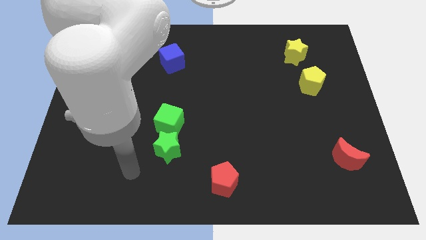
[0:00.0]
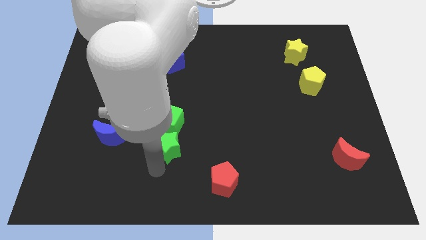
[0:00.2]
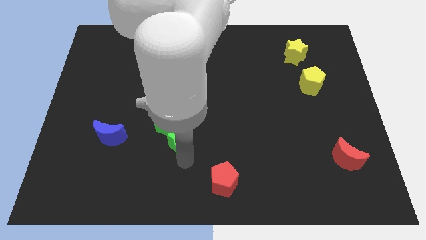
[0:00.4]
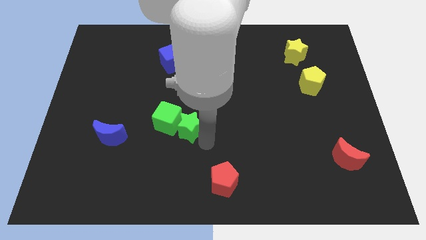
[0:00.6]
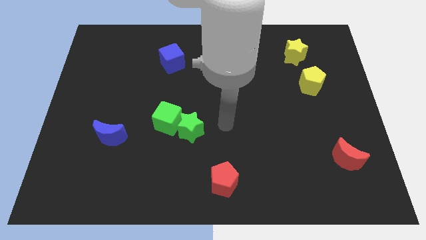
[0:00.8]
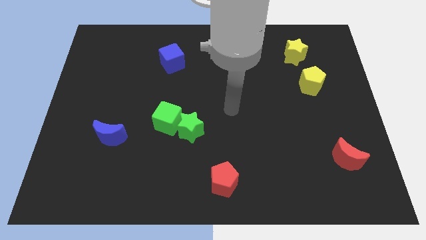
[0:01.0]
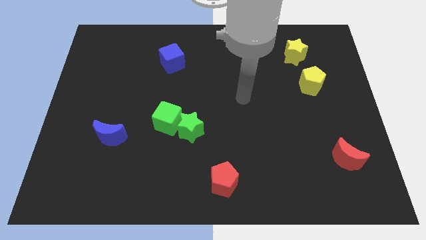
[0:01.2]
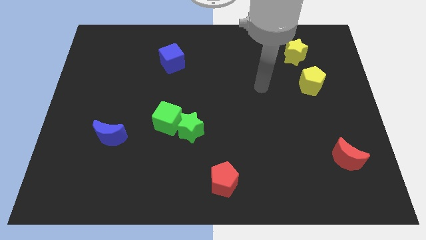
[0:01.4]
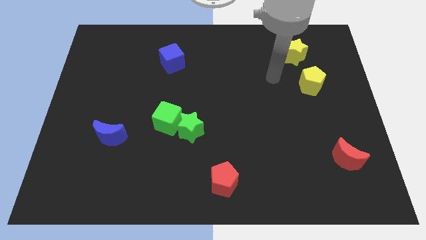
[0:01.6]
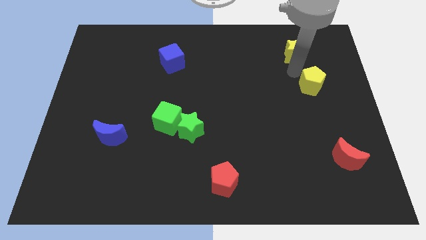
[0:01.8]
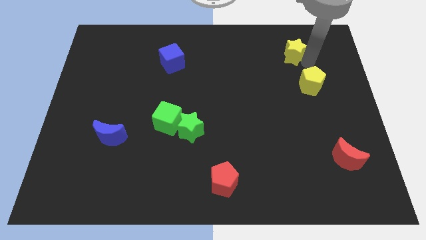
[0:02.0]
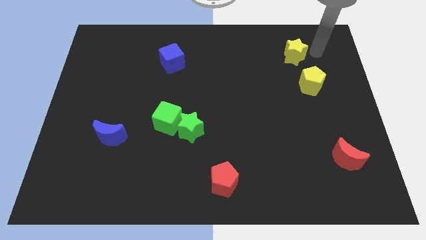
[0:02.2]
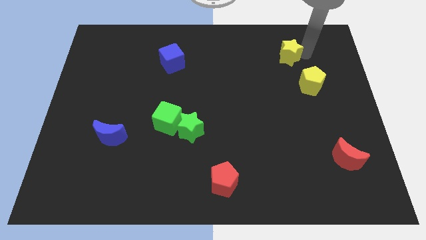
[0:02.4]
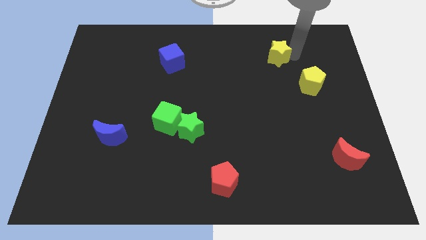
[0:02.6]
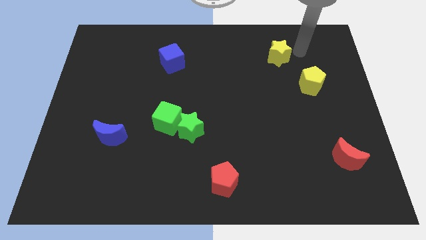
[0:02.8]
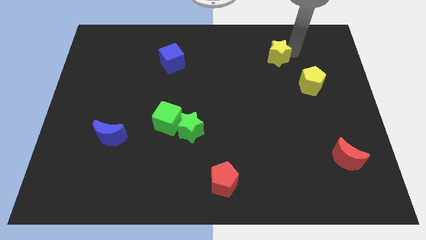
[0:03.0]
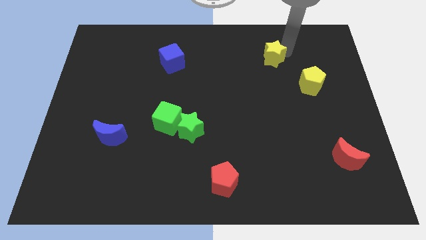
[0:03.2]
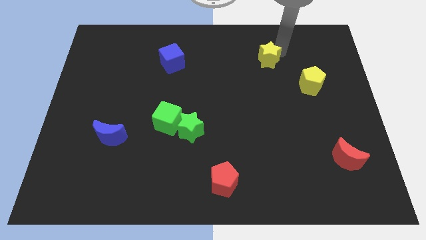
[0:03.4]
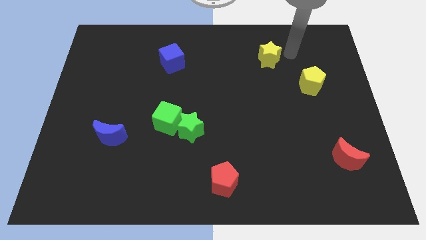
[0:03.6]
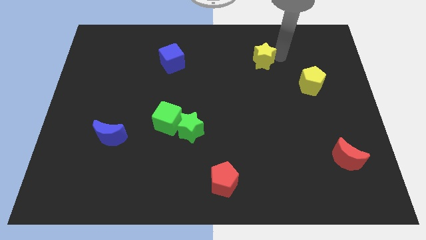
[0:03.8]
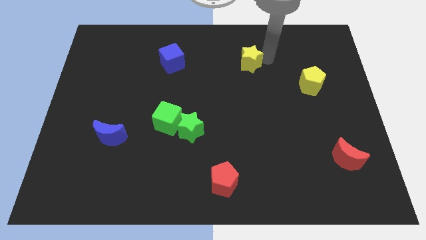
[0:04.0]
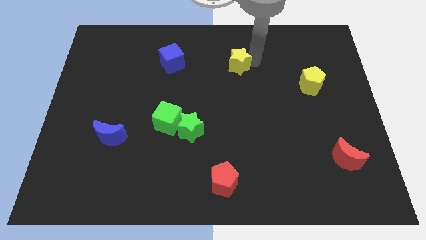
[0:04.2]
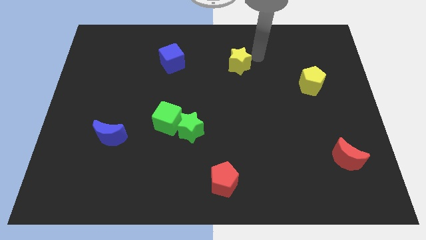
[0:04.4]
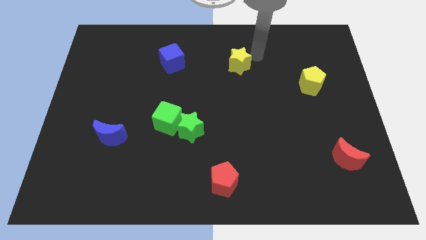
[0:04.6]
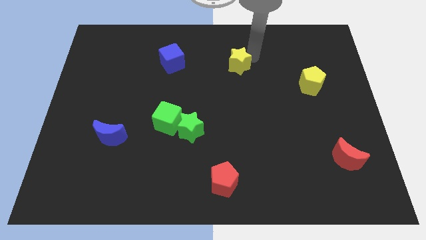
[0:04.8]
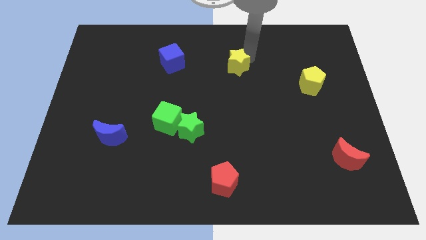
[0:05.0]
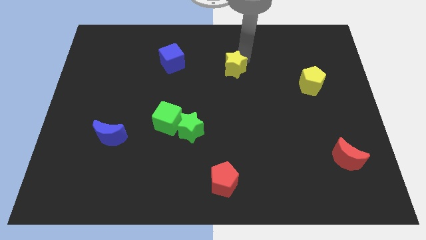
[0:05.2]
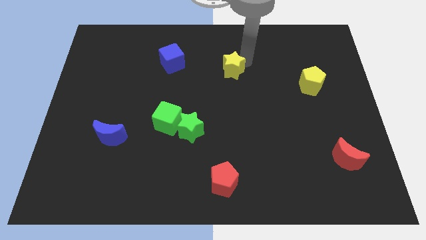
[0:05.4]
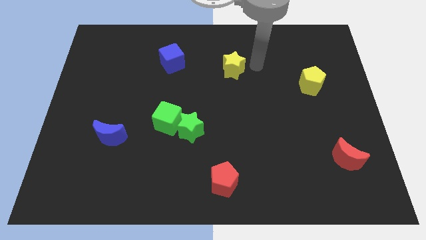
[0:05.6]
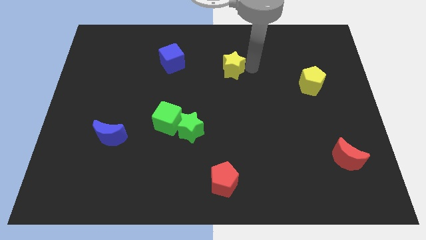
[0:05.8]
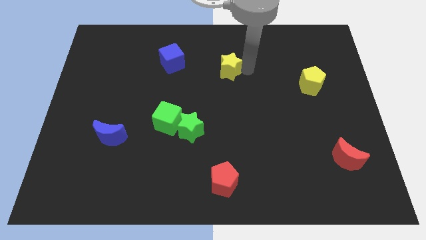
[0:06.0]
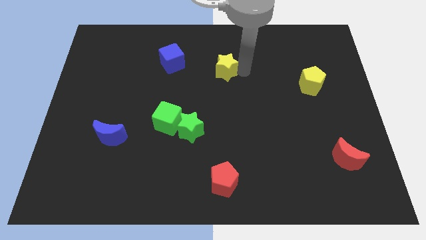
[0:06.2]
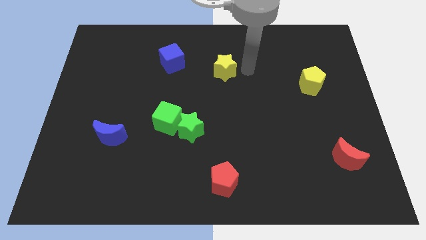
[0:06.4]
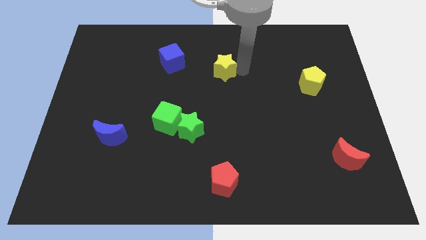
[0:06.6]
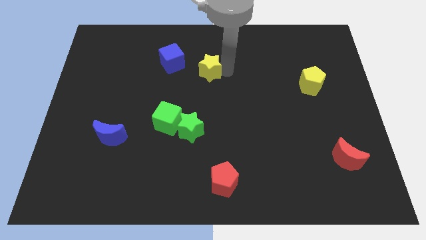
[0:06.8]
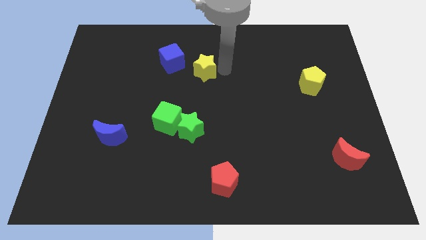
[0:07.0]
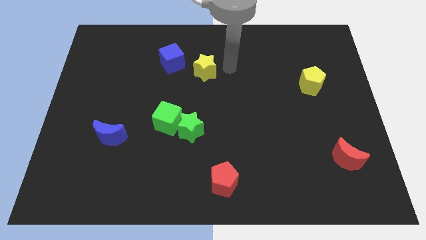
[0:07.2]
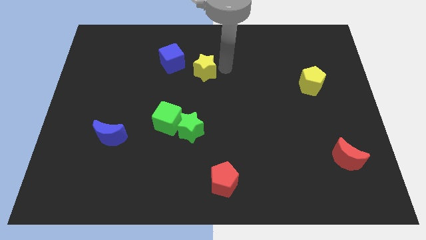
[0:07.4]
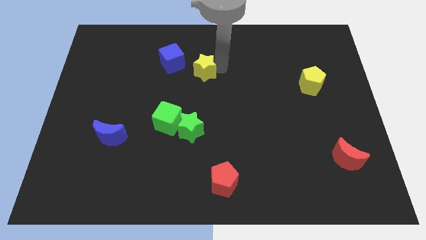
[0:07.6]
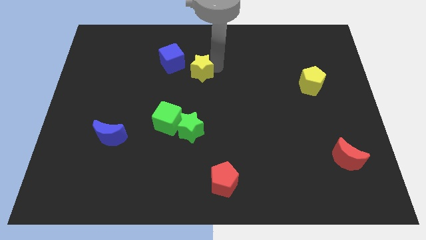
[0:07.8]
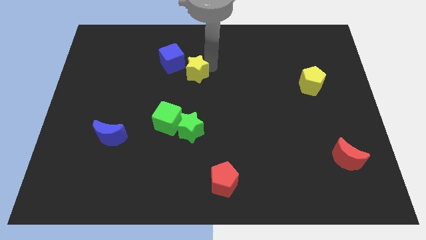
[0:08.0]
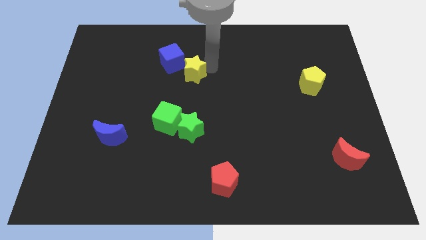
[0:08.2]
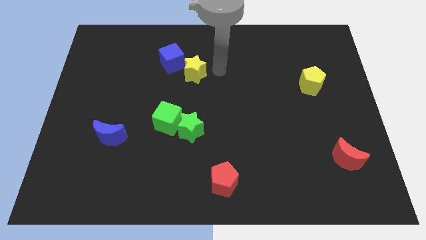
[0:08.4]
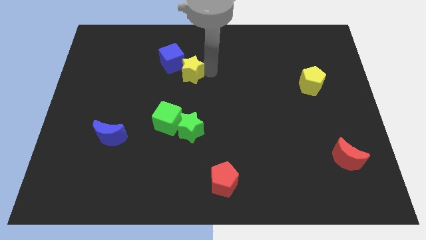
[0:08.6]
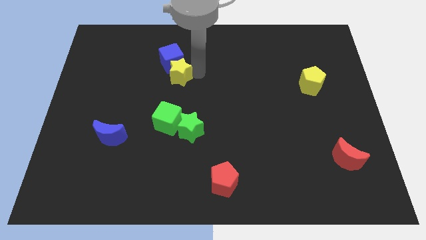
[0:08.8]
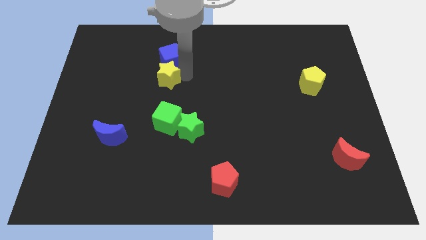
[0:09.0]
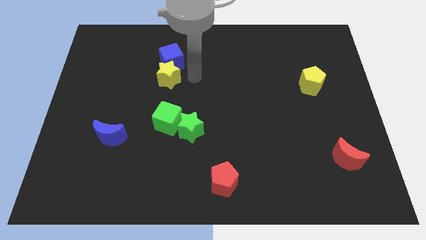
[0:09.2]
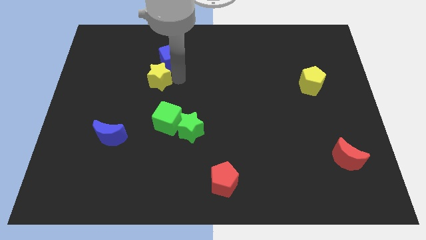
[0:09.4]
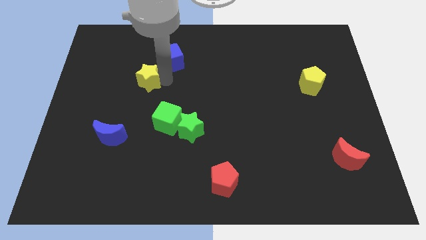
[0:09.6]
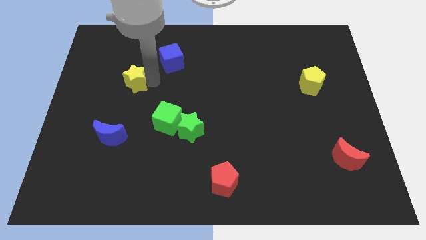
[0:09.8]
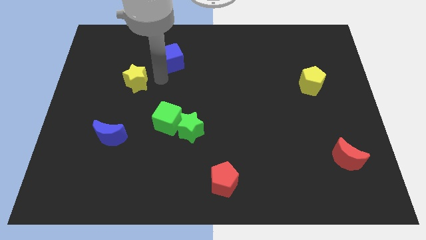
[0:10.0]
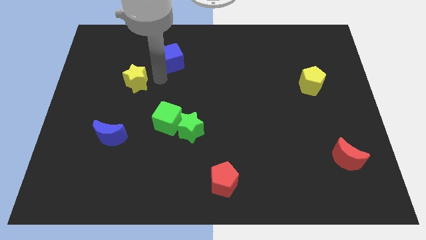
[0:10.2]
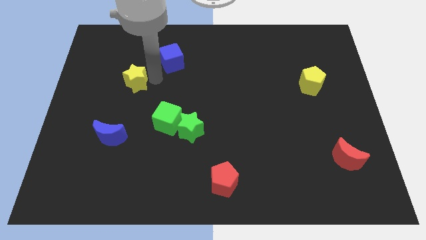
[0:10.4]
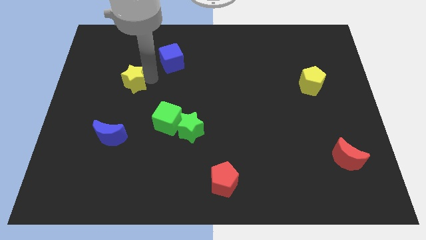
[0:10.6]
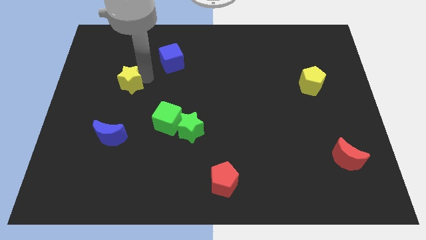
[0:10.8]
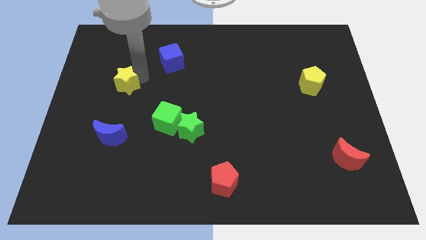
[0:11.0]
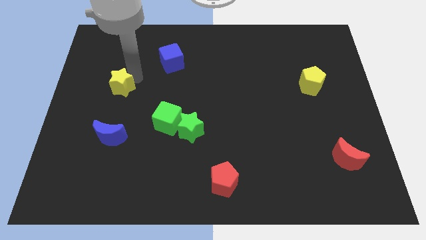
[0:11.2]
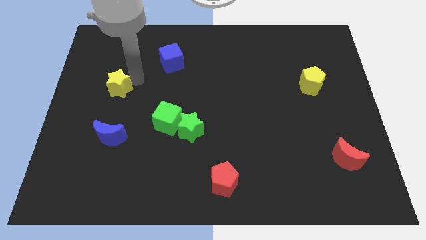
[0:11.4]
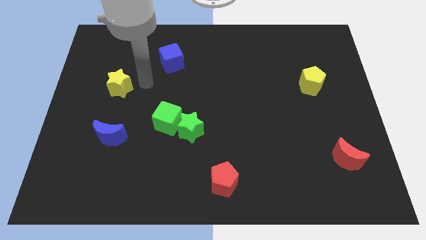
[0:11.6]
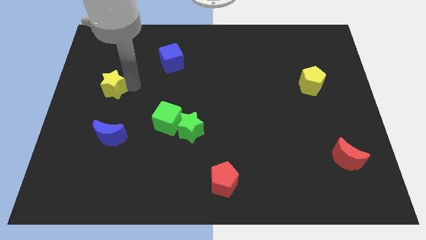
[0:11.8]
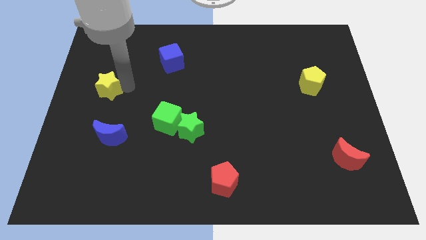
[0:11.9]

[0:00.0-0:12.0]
move the yellow star to the center left
